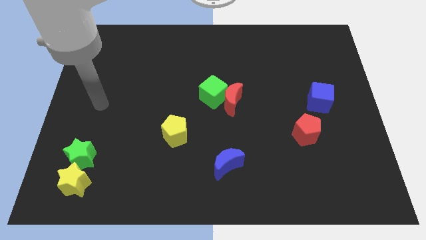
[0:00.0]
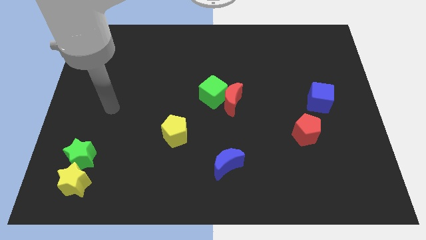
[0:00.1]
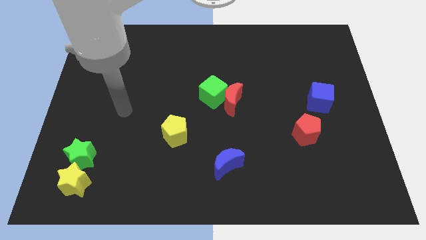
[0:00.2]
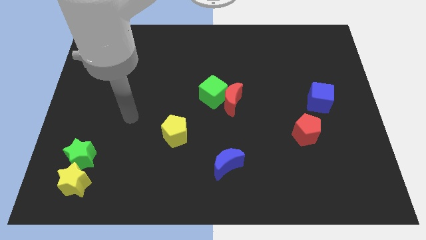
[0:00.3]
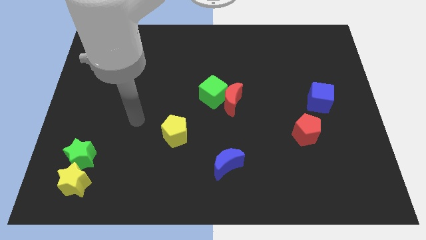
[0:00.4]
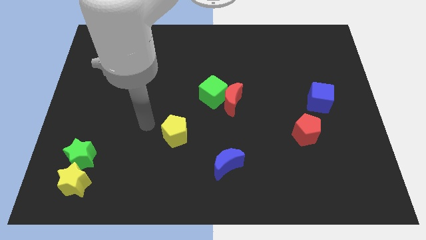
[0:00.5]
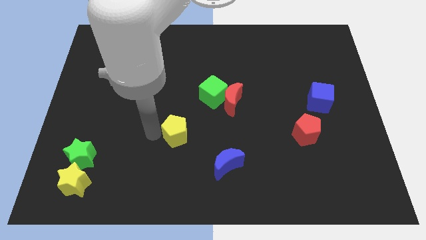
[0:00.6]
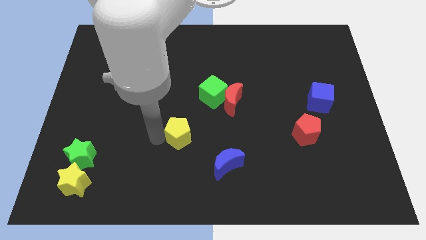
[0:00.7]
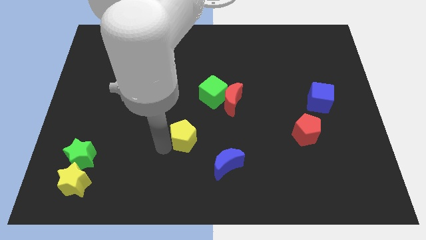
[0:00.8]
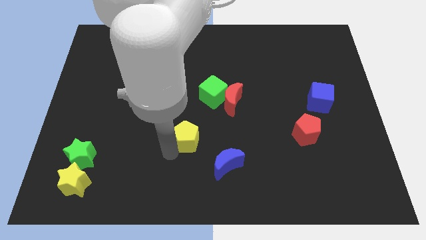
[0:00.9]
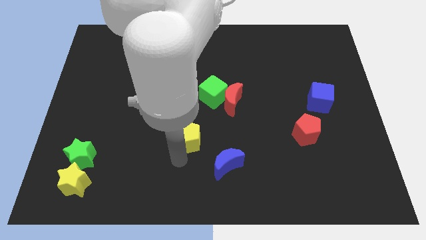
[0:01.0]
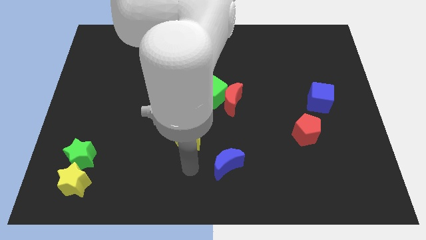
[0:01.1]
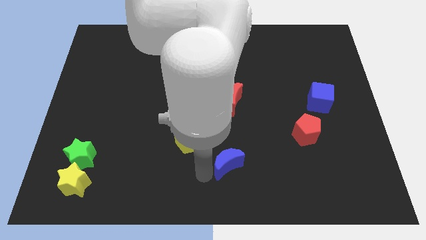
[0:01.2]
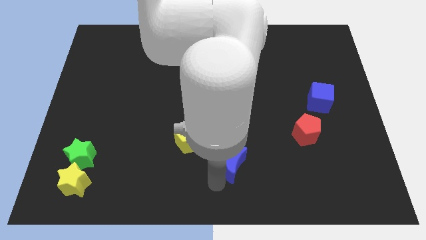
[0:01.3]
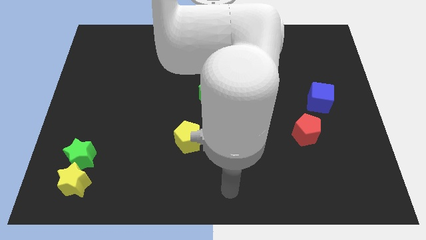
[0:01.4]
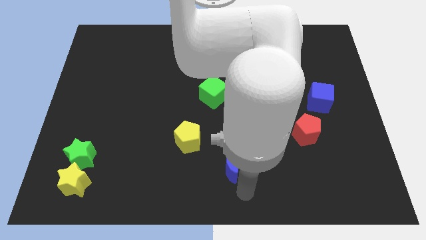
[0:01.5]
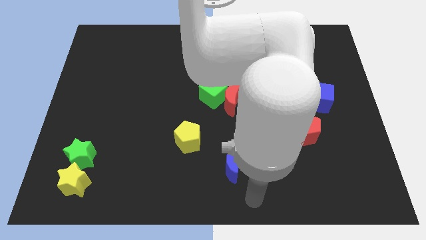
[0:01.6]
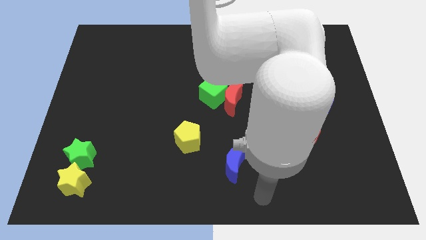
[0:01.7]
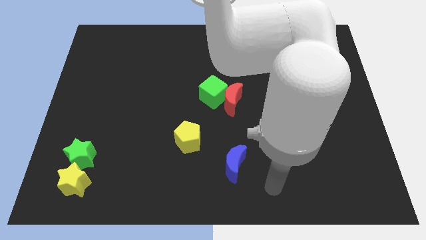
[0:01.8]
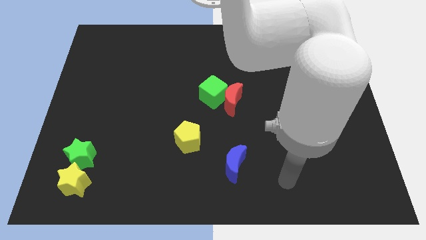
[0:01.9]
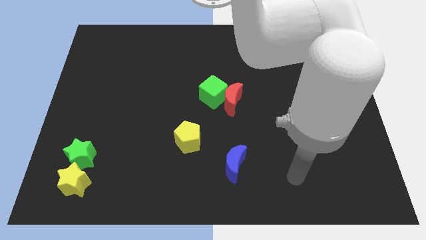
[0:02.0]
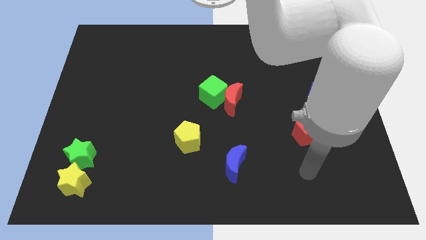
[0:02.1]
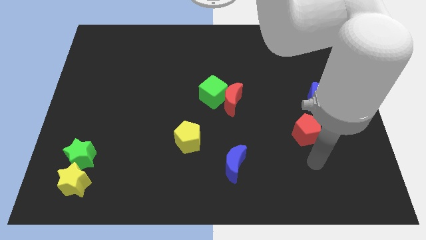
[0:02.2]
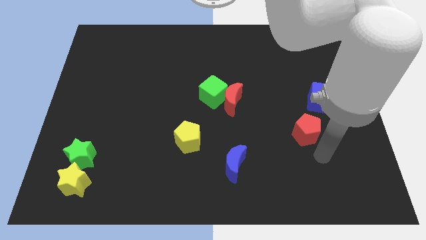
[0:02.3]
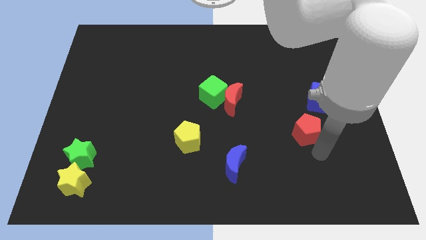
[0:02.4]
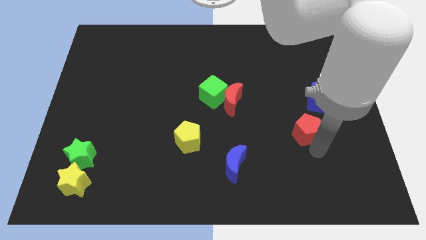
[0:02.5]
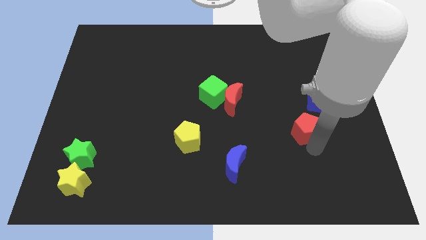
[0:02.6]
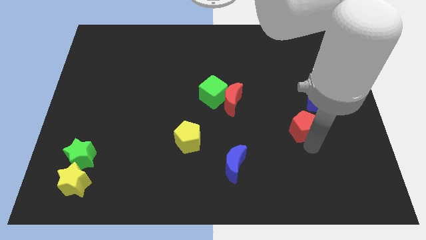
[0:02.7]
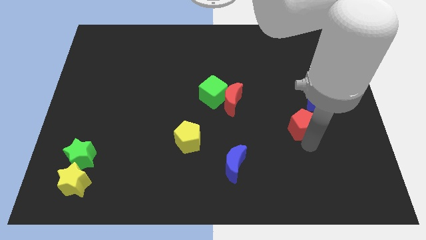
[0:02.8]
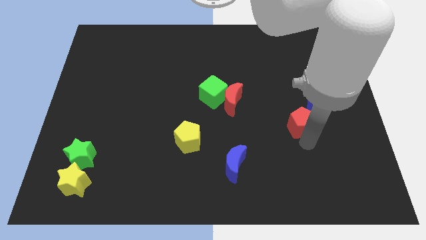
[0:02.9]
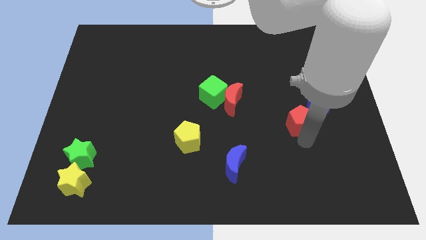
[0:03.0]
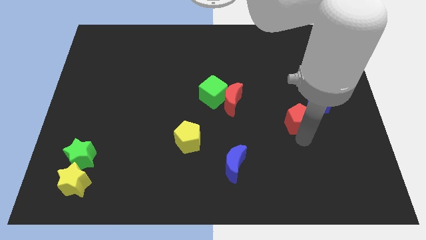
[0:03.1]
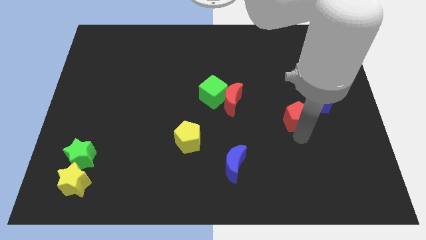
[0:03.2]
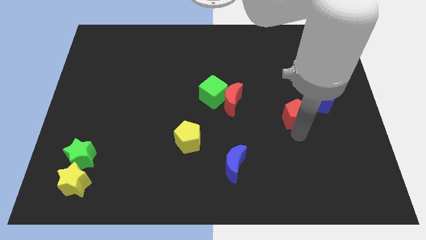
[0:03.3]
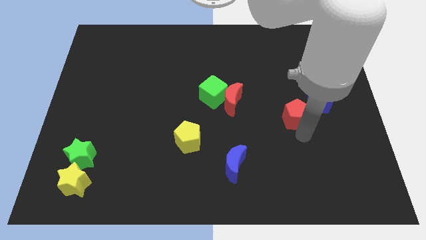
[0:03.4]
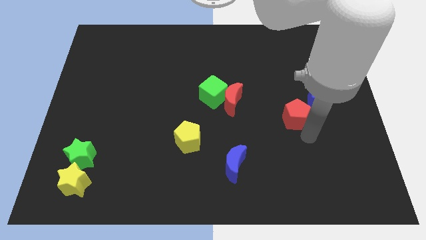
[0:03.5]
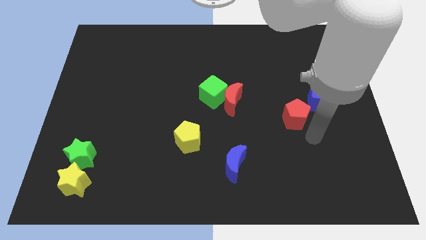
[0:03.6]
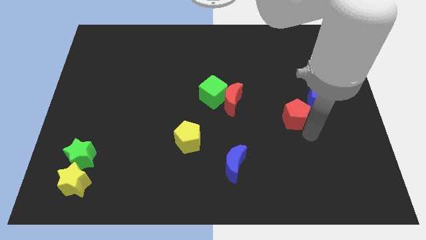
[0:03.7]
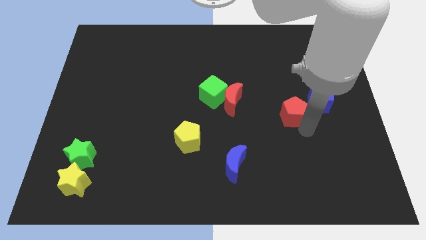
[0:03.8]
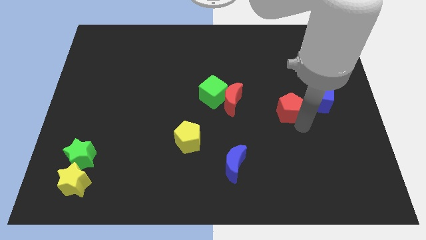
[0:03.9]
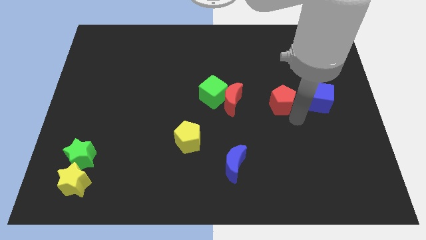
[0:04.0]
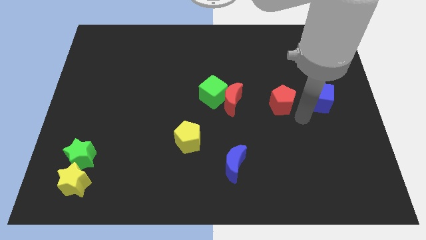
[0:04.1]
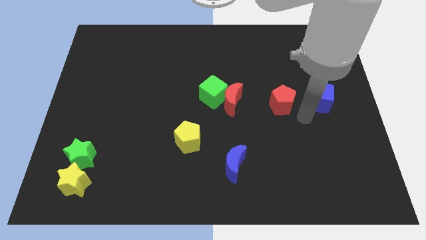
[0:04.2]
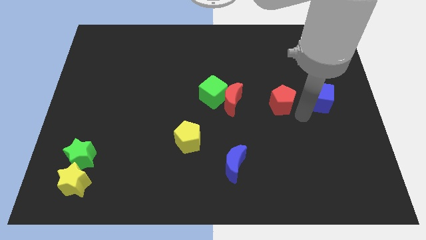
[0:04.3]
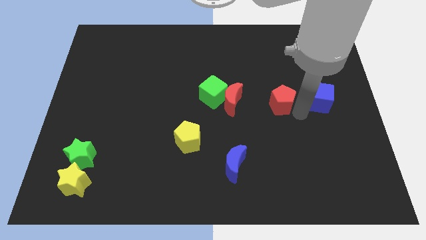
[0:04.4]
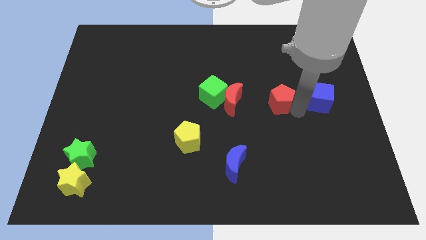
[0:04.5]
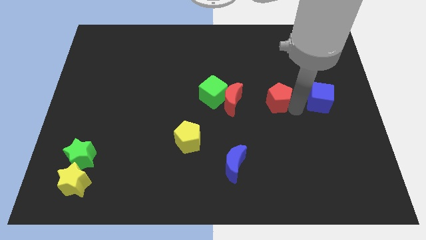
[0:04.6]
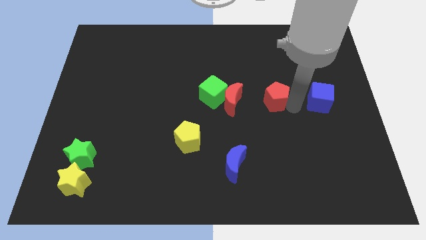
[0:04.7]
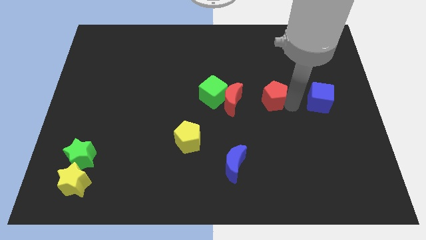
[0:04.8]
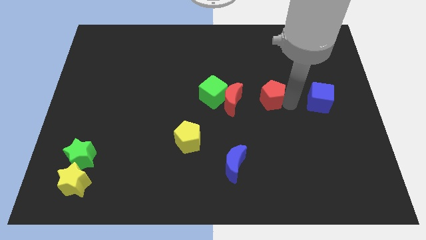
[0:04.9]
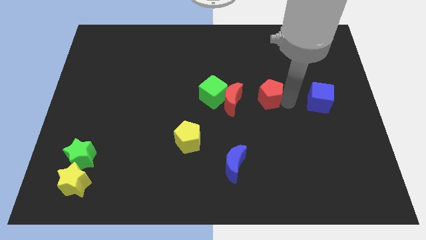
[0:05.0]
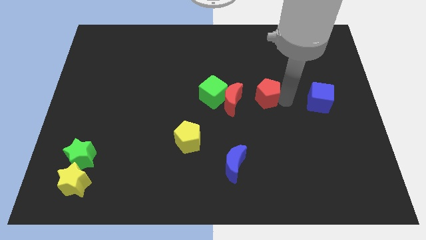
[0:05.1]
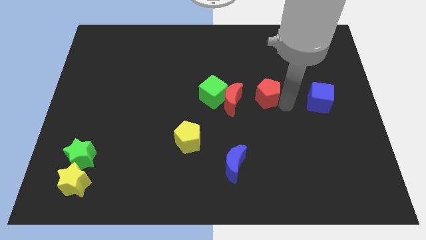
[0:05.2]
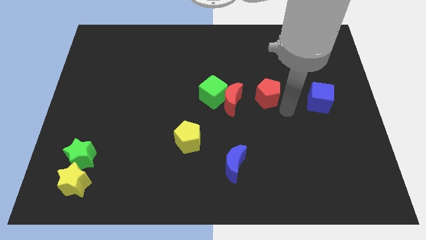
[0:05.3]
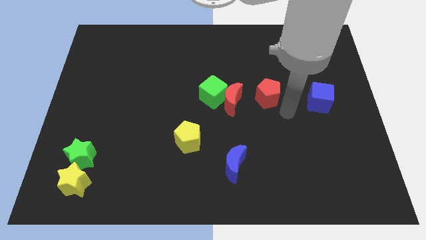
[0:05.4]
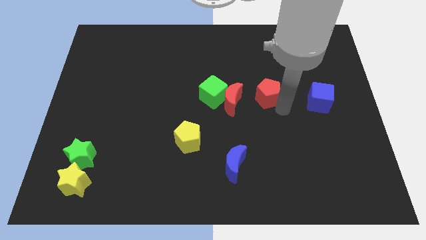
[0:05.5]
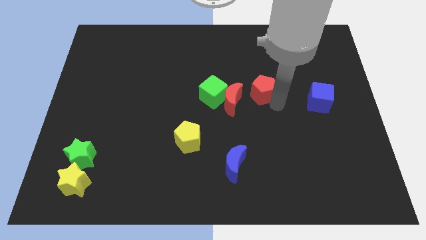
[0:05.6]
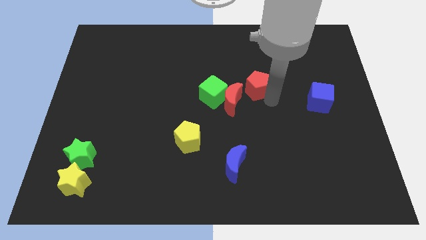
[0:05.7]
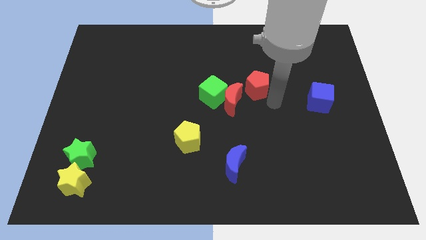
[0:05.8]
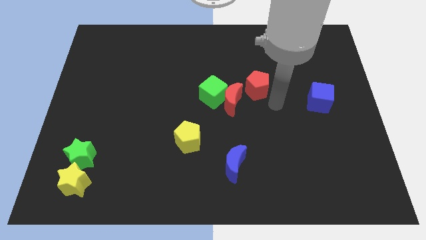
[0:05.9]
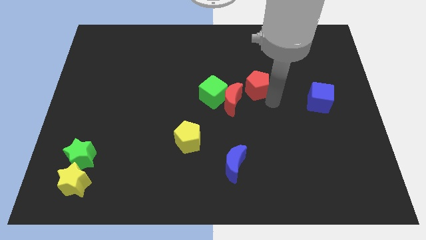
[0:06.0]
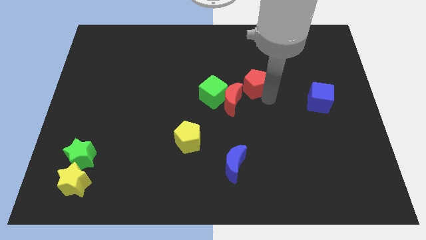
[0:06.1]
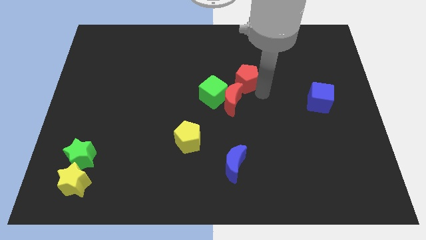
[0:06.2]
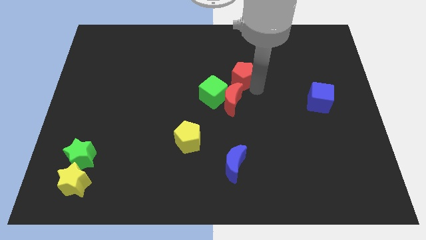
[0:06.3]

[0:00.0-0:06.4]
move the red pentagon upwards and then left

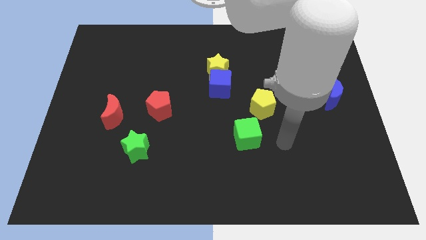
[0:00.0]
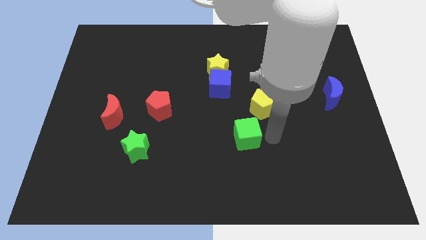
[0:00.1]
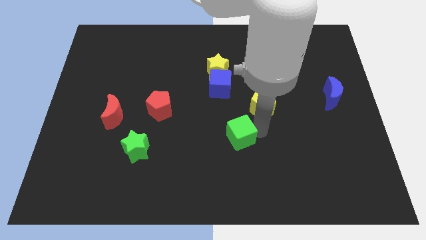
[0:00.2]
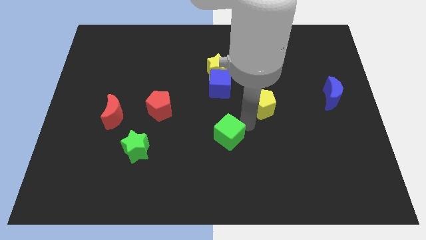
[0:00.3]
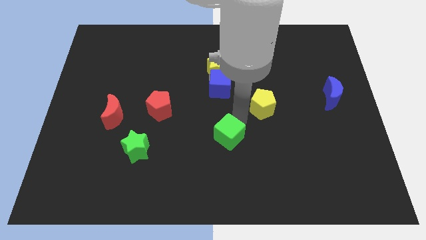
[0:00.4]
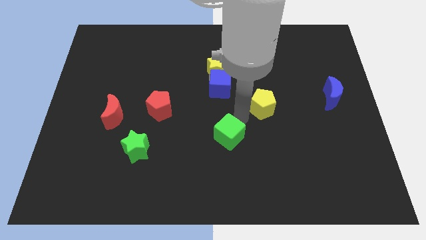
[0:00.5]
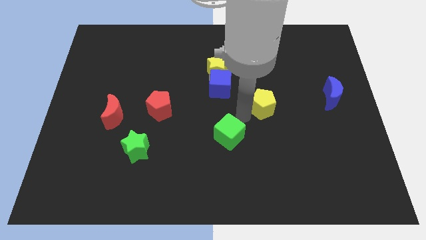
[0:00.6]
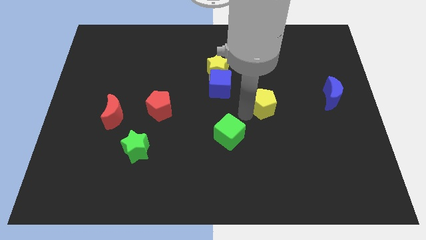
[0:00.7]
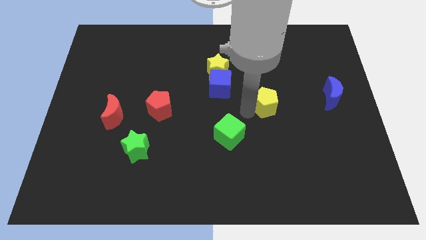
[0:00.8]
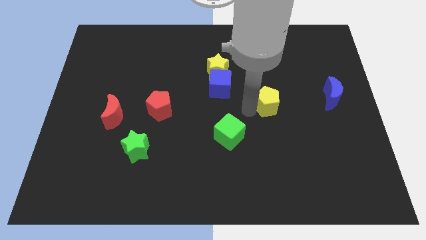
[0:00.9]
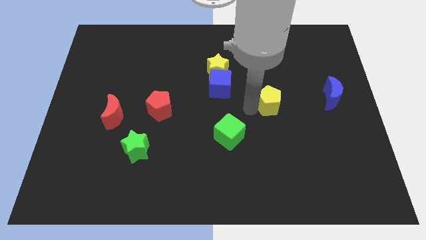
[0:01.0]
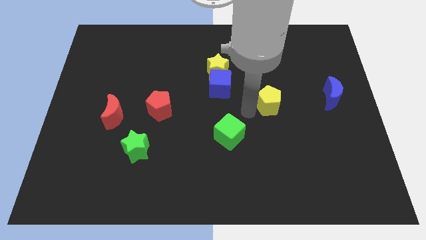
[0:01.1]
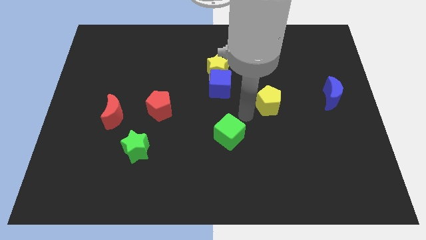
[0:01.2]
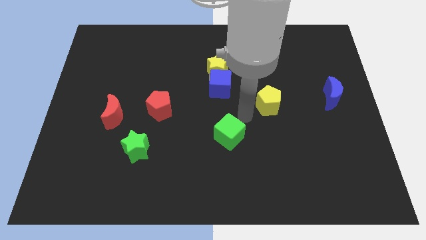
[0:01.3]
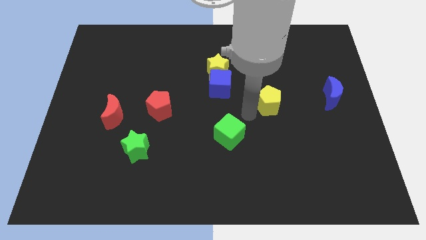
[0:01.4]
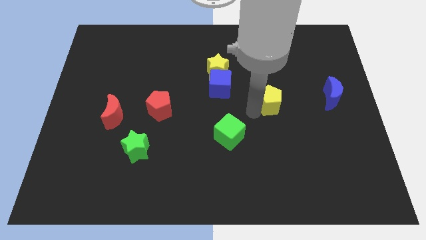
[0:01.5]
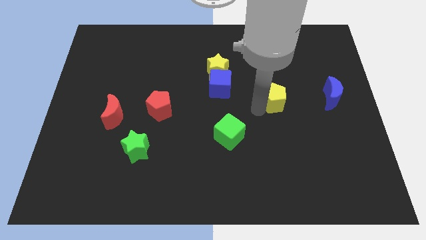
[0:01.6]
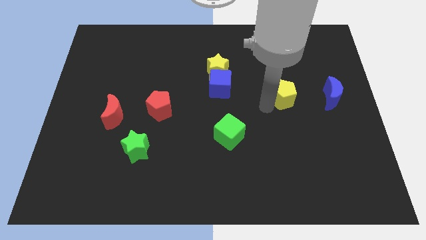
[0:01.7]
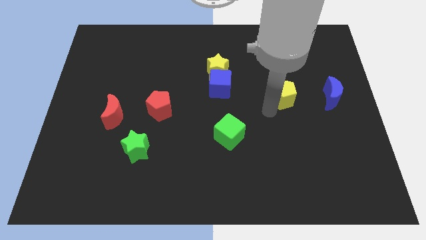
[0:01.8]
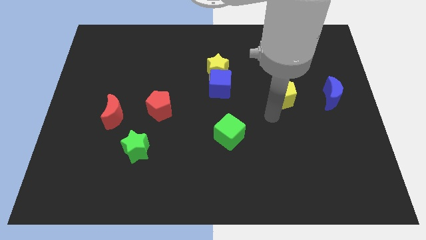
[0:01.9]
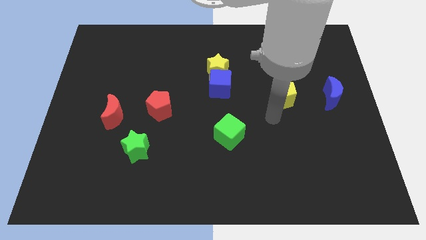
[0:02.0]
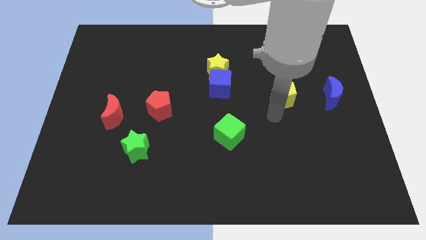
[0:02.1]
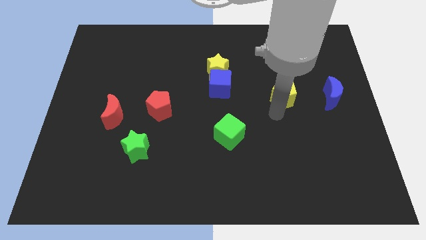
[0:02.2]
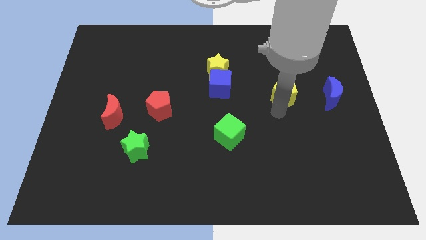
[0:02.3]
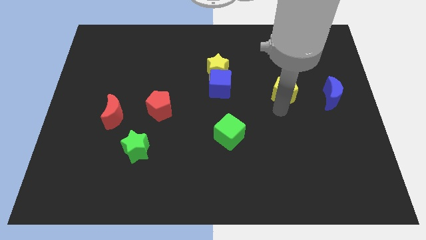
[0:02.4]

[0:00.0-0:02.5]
move the yellow pentagon upwards and then to the right somewhat
